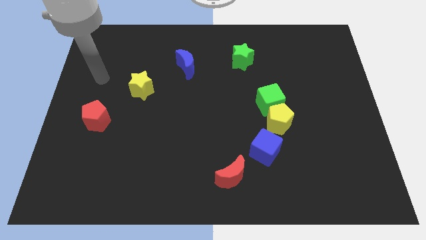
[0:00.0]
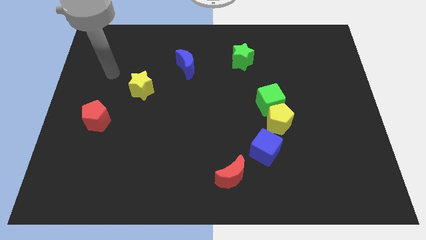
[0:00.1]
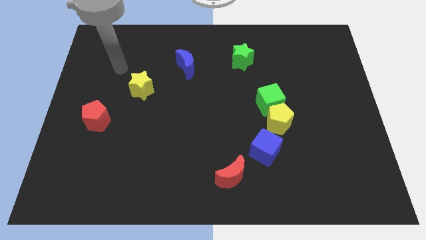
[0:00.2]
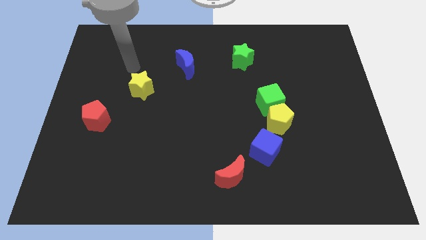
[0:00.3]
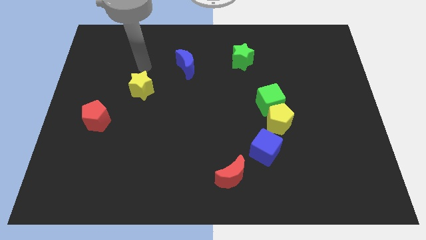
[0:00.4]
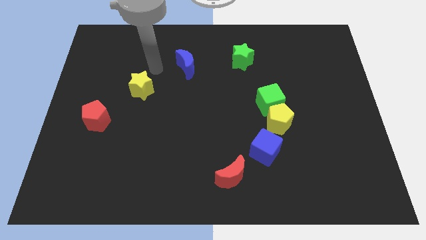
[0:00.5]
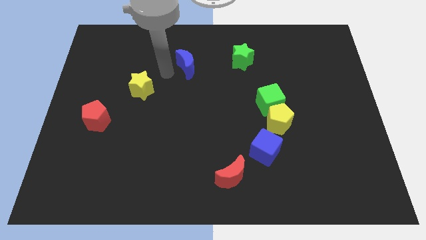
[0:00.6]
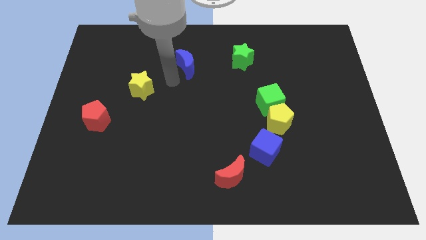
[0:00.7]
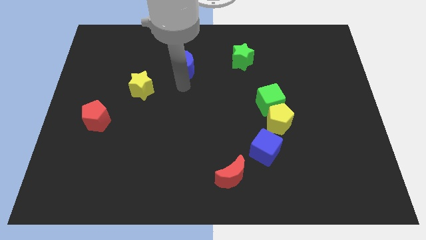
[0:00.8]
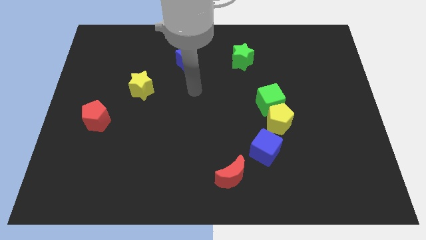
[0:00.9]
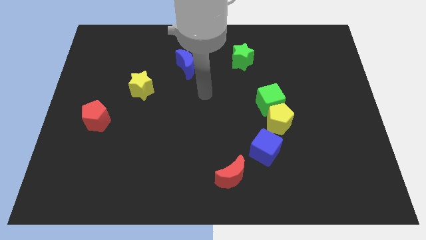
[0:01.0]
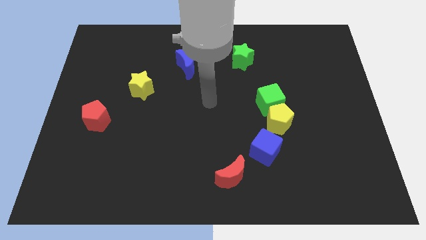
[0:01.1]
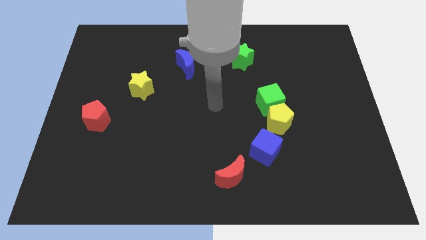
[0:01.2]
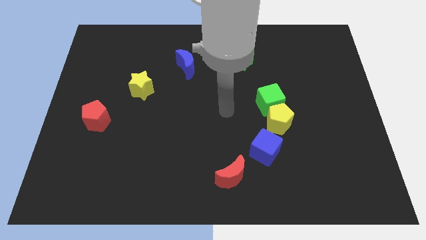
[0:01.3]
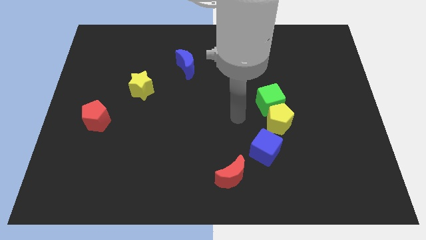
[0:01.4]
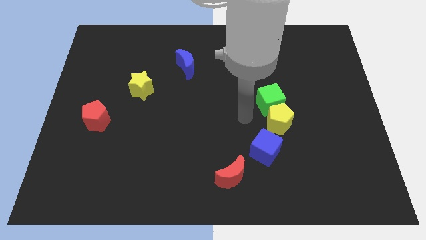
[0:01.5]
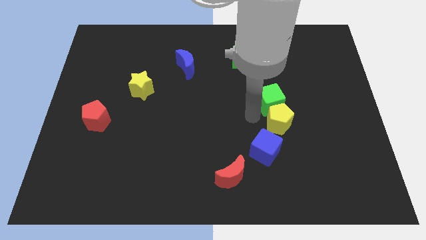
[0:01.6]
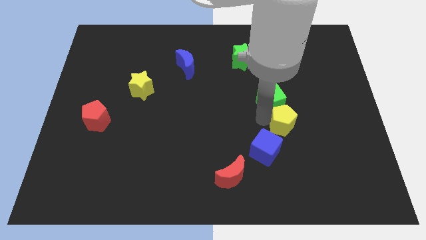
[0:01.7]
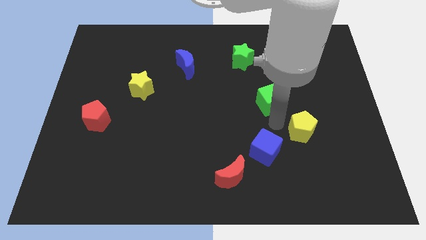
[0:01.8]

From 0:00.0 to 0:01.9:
separate the green cube from the yellow pentagon

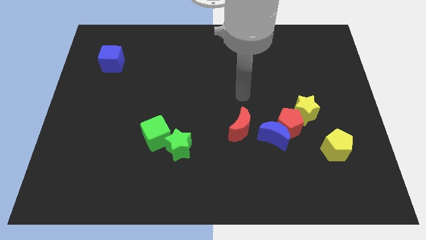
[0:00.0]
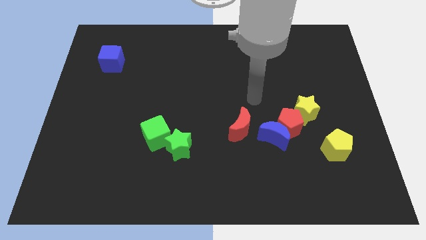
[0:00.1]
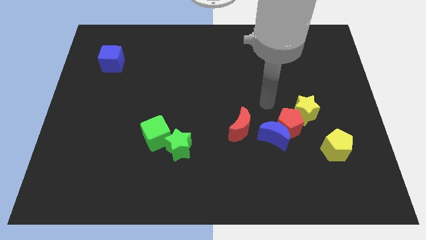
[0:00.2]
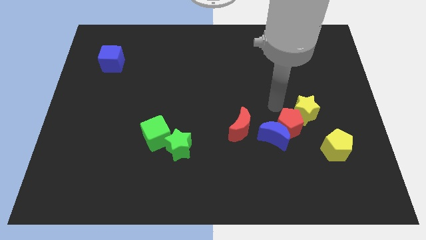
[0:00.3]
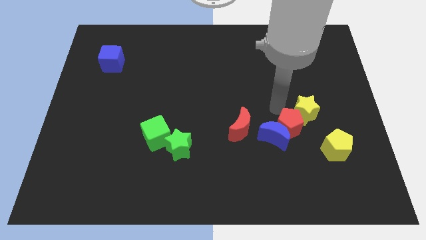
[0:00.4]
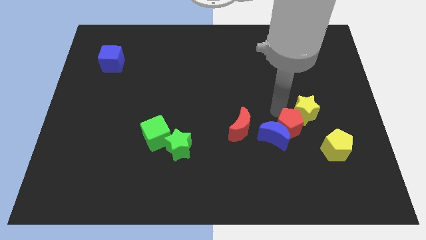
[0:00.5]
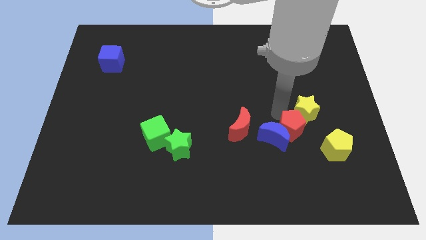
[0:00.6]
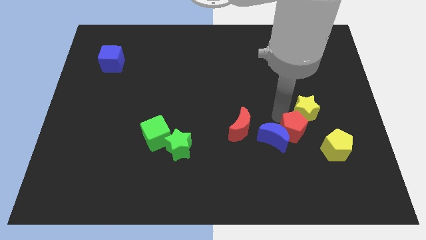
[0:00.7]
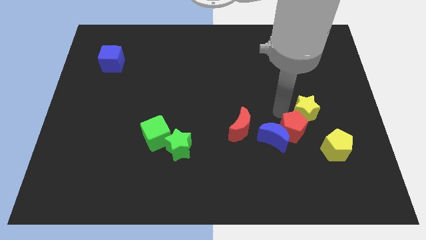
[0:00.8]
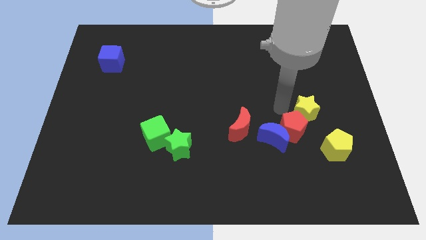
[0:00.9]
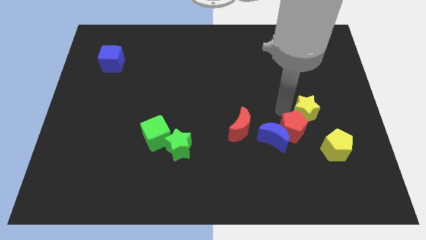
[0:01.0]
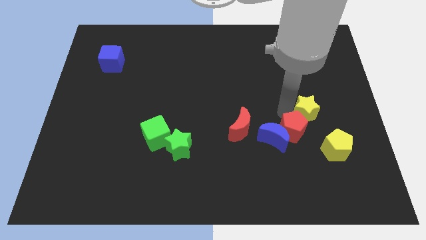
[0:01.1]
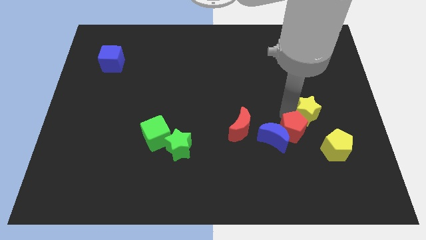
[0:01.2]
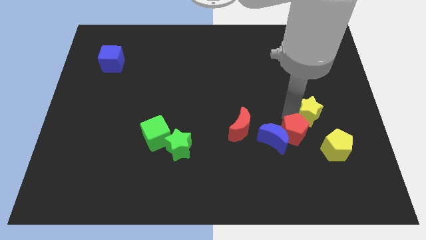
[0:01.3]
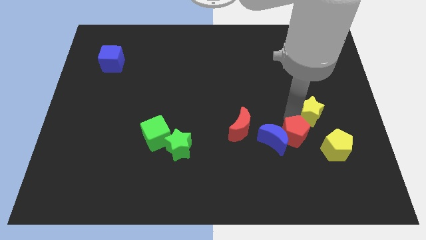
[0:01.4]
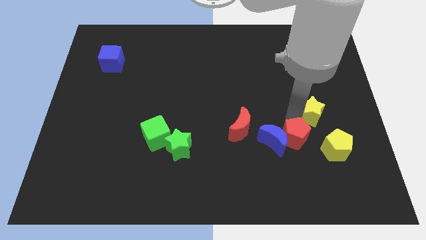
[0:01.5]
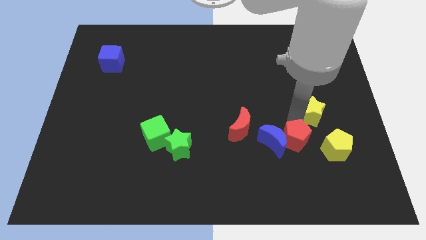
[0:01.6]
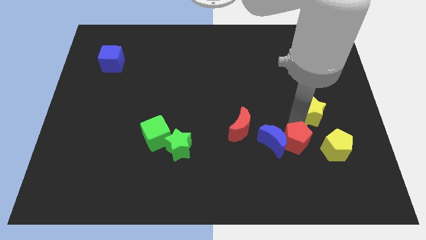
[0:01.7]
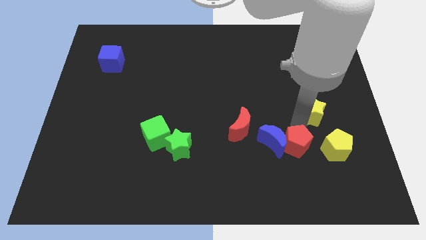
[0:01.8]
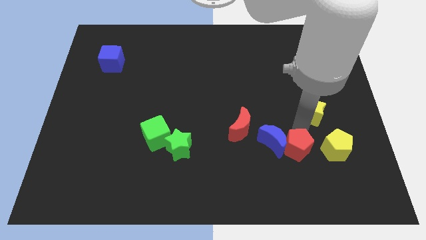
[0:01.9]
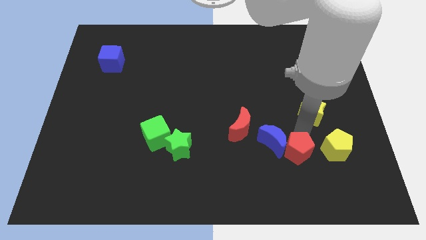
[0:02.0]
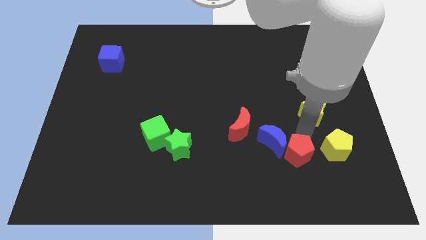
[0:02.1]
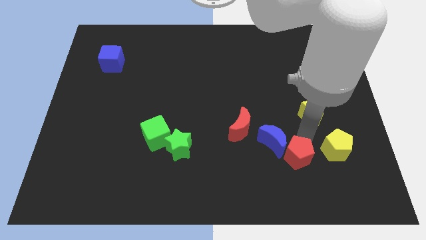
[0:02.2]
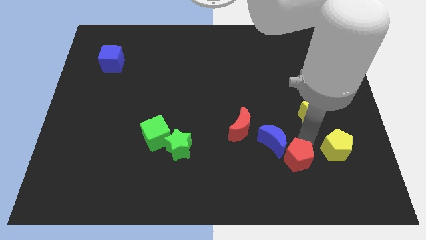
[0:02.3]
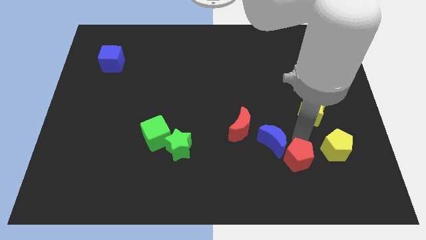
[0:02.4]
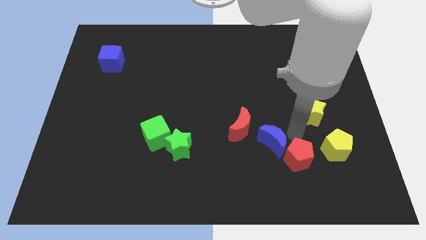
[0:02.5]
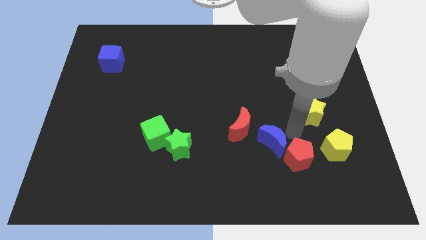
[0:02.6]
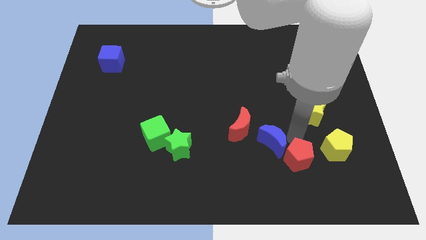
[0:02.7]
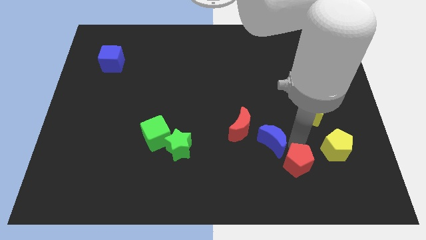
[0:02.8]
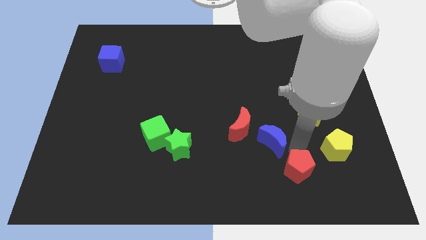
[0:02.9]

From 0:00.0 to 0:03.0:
pull the red pentagon apart from the blue moon and yellow star

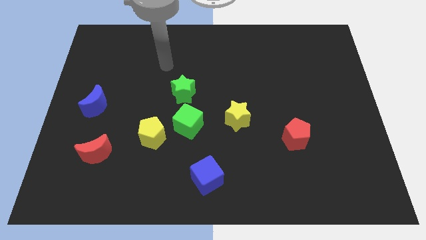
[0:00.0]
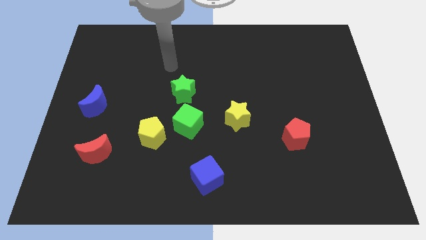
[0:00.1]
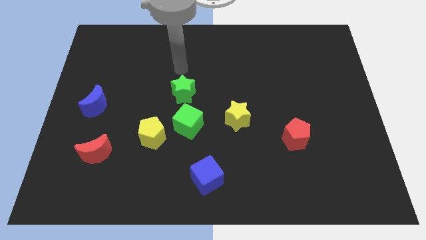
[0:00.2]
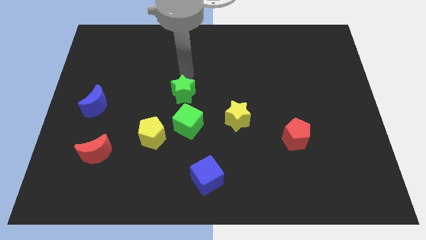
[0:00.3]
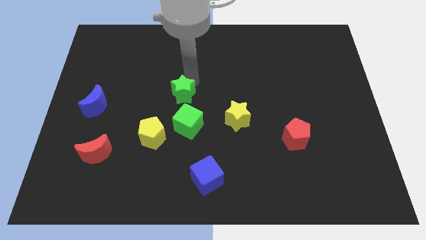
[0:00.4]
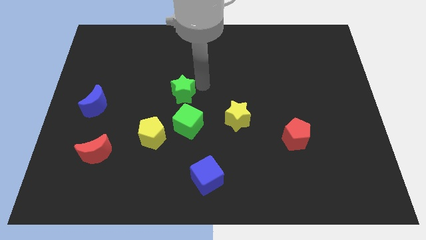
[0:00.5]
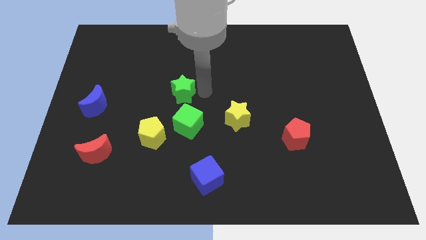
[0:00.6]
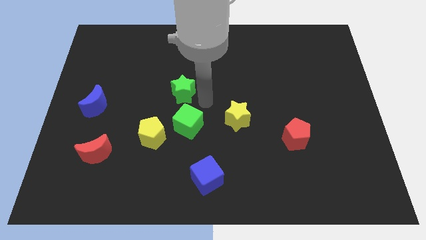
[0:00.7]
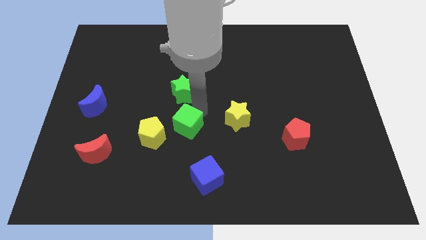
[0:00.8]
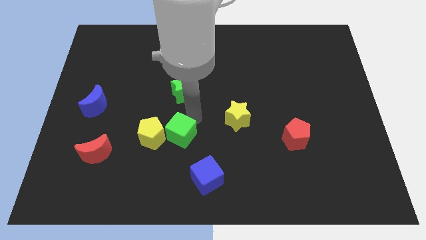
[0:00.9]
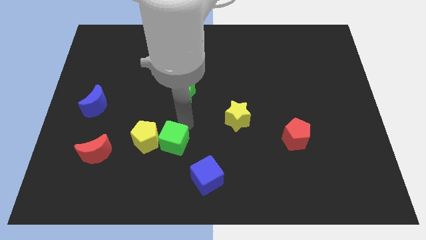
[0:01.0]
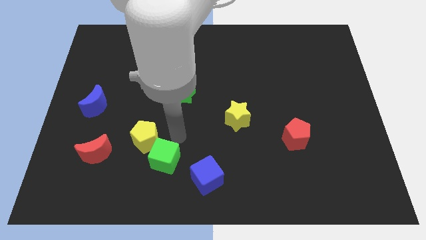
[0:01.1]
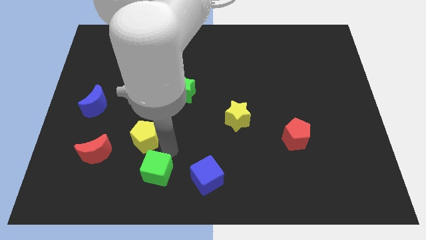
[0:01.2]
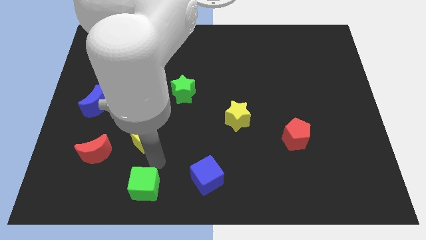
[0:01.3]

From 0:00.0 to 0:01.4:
pull the yellow pentagon apart from the green cube

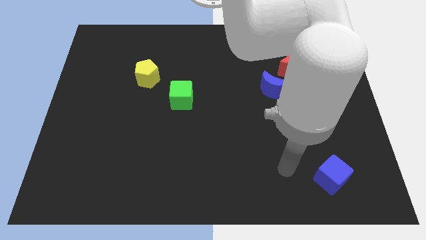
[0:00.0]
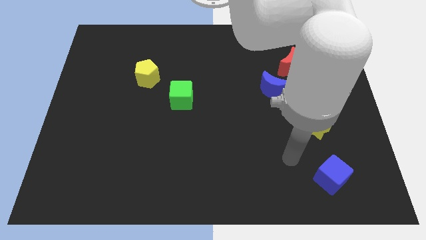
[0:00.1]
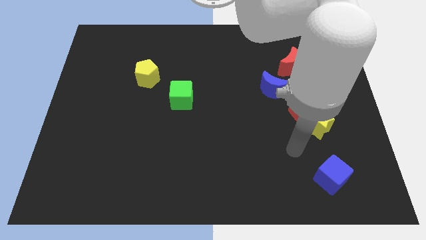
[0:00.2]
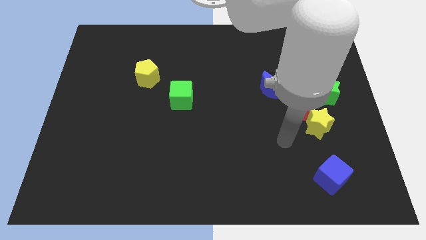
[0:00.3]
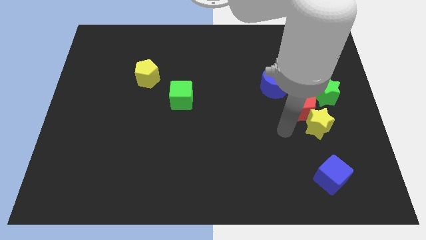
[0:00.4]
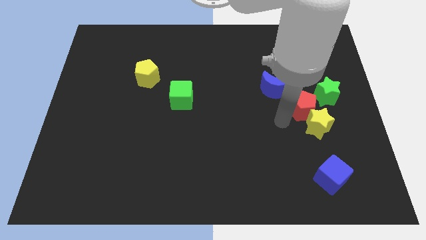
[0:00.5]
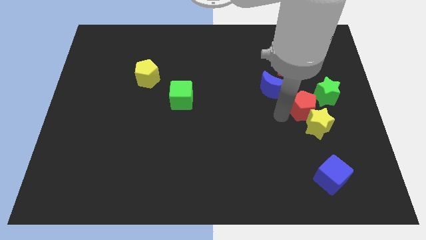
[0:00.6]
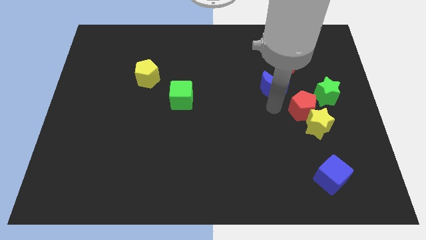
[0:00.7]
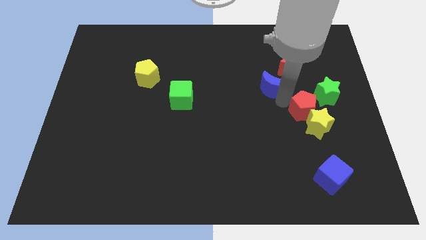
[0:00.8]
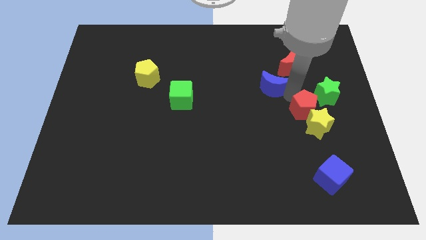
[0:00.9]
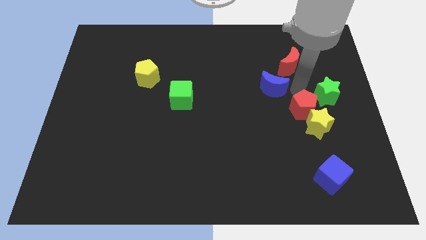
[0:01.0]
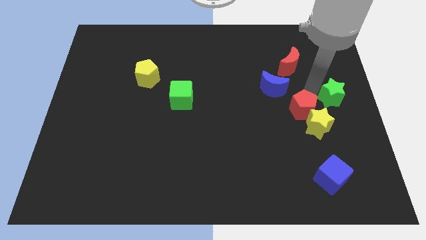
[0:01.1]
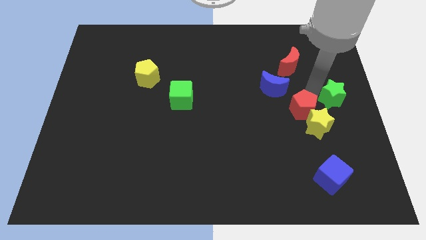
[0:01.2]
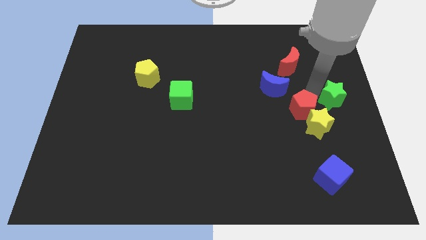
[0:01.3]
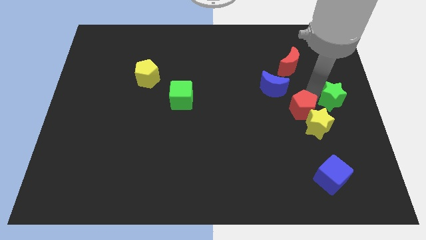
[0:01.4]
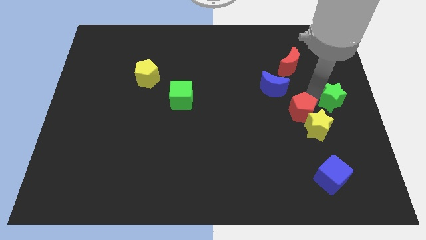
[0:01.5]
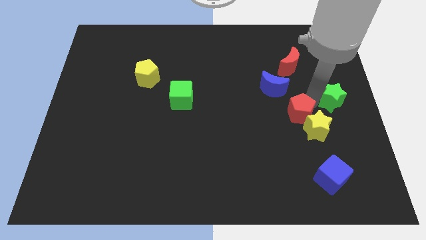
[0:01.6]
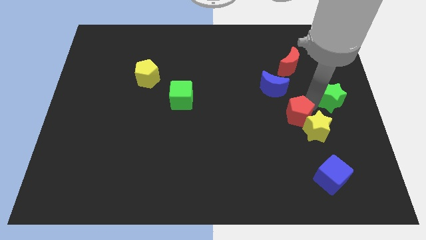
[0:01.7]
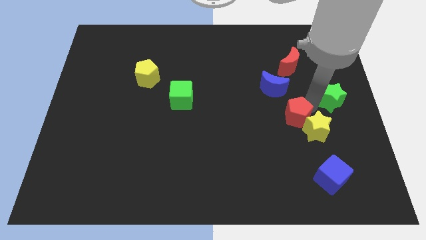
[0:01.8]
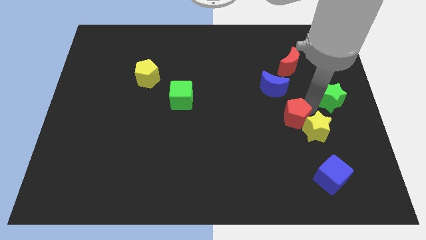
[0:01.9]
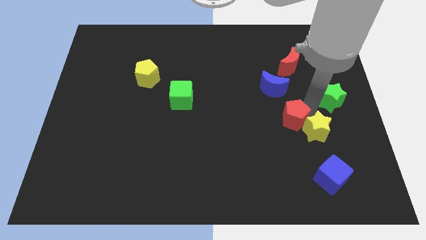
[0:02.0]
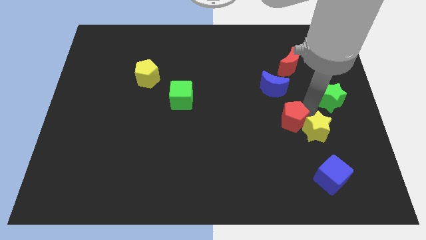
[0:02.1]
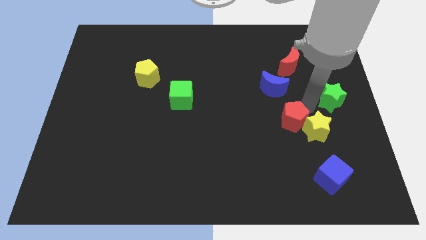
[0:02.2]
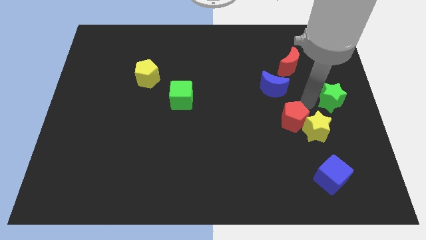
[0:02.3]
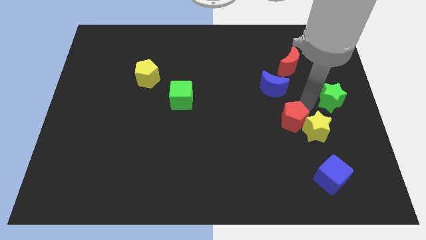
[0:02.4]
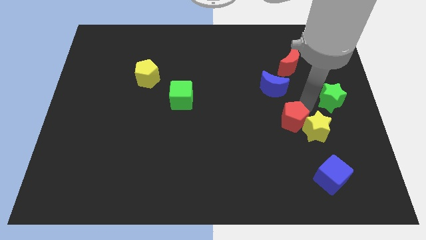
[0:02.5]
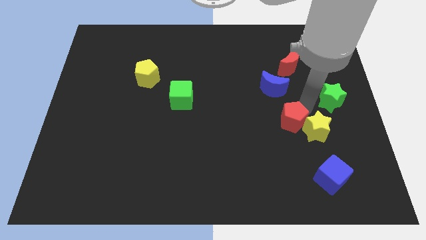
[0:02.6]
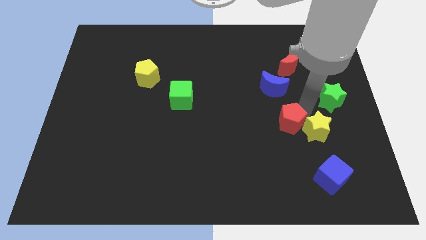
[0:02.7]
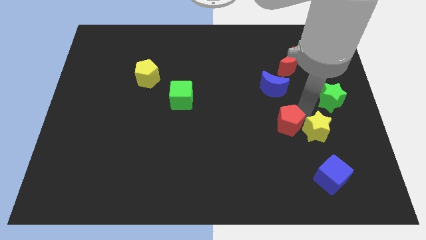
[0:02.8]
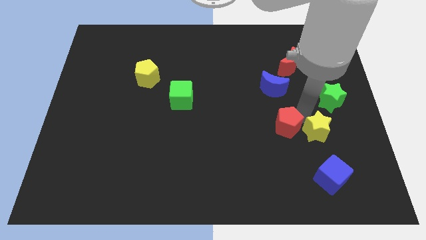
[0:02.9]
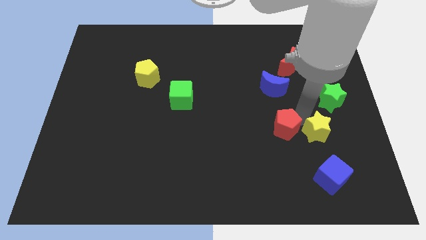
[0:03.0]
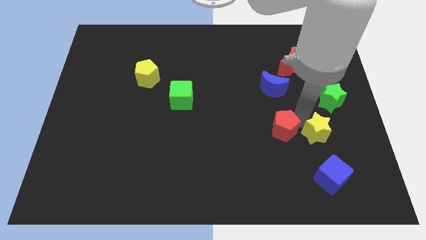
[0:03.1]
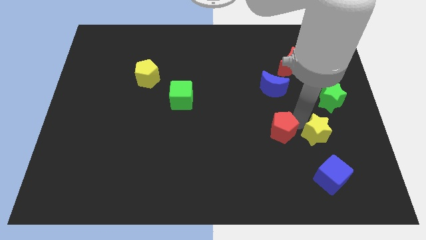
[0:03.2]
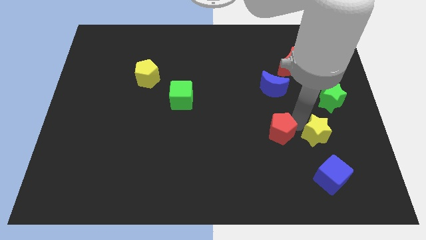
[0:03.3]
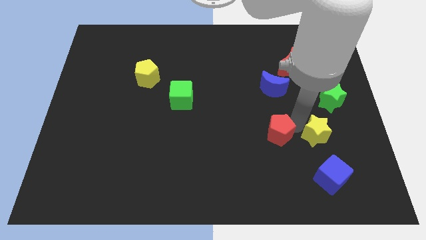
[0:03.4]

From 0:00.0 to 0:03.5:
pull the red pentagon apart from the yellow star, green star, and blue moon
